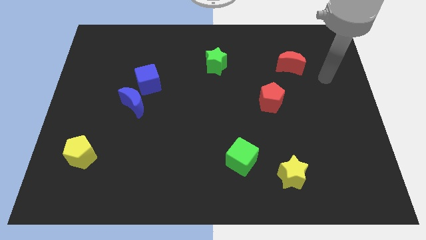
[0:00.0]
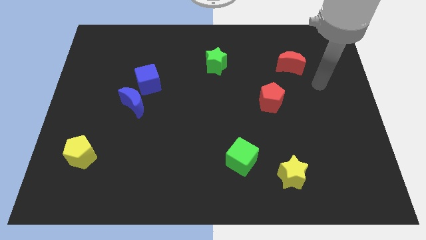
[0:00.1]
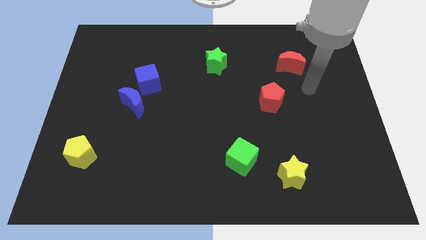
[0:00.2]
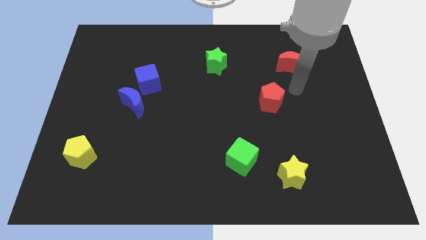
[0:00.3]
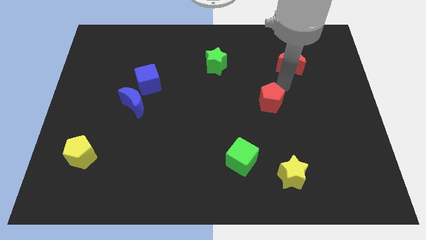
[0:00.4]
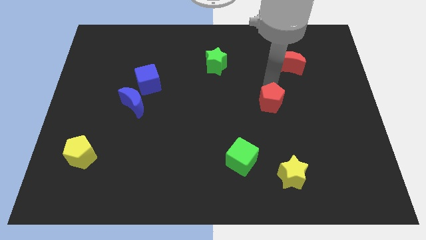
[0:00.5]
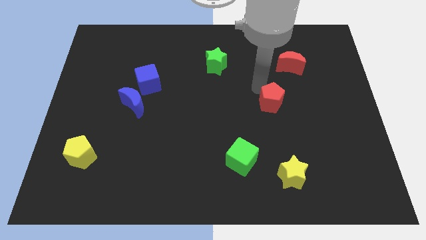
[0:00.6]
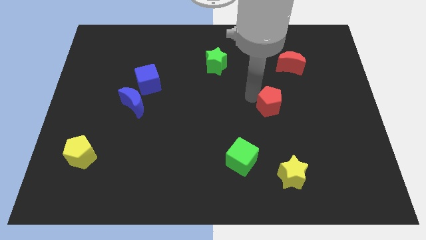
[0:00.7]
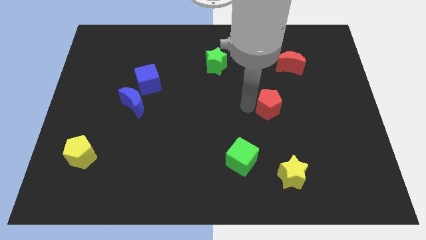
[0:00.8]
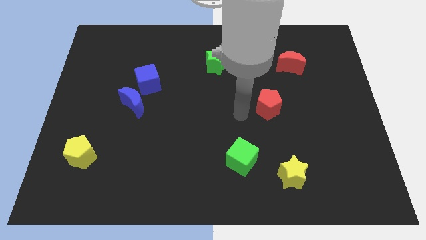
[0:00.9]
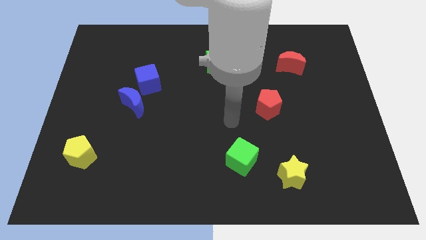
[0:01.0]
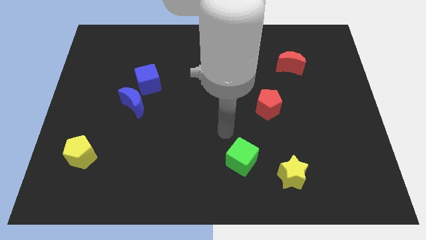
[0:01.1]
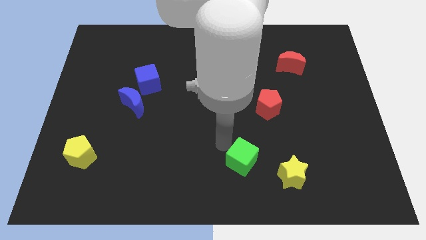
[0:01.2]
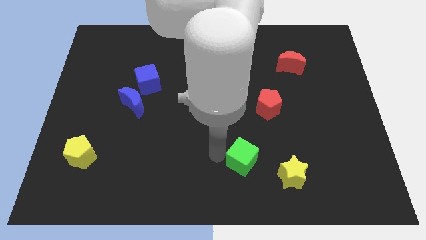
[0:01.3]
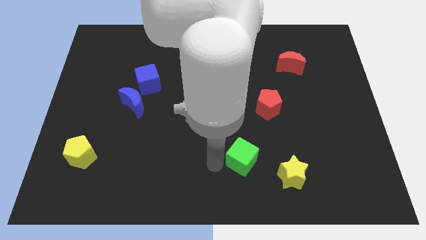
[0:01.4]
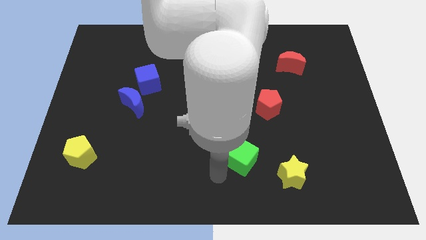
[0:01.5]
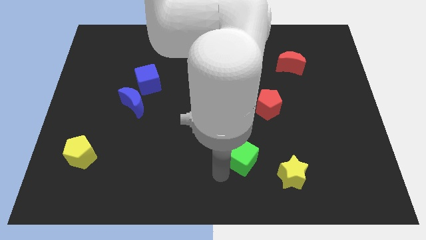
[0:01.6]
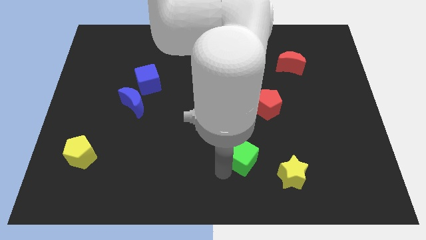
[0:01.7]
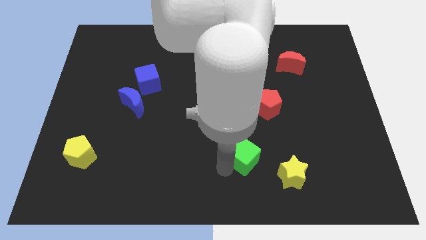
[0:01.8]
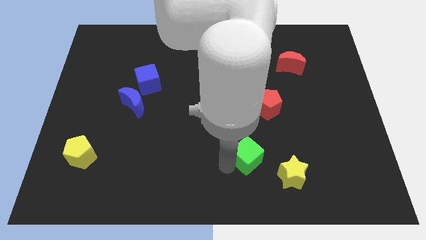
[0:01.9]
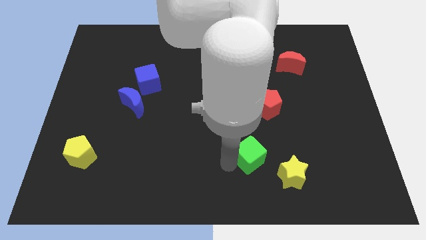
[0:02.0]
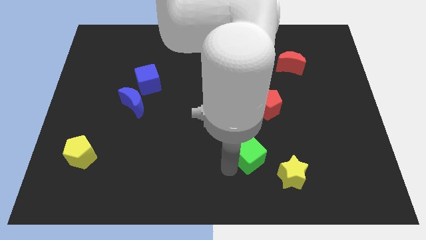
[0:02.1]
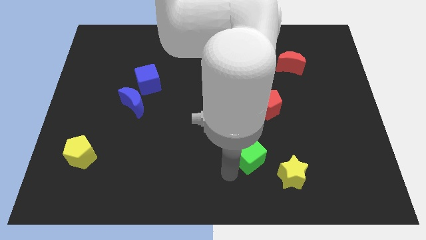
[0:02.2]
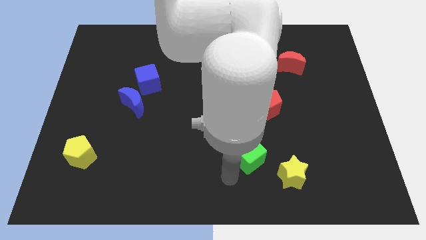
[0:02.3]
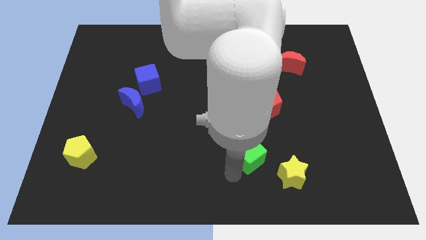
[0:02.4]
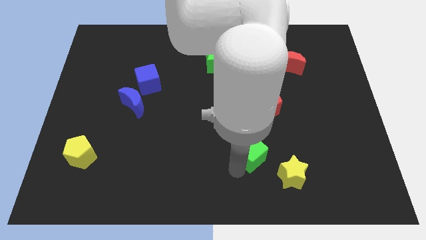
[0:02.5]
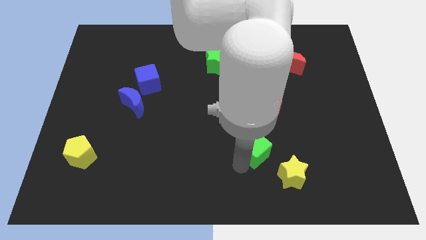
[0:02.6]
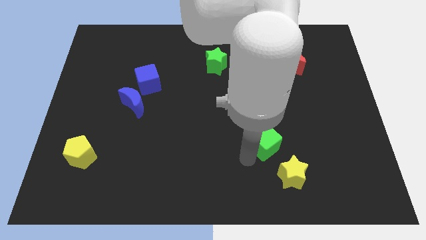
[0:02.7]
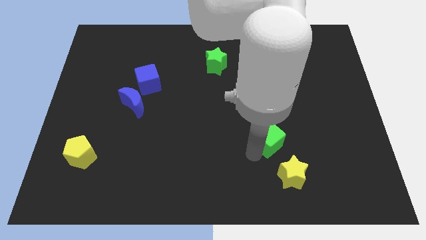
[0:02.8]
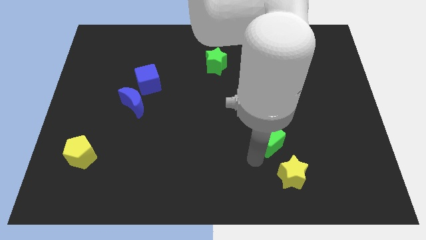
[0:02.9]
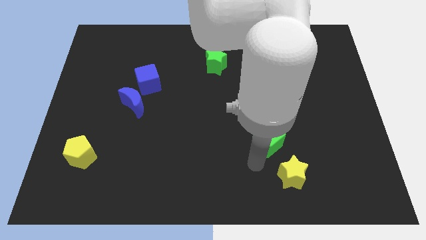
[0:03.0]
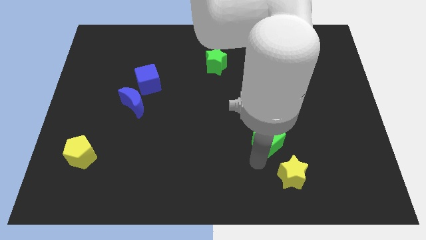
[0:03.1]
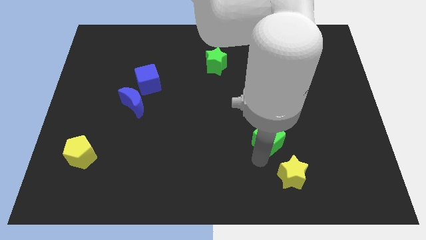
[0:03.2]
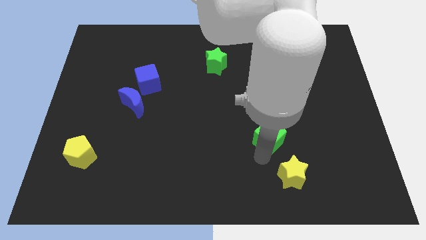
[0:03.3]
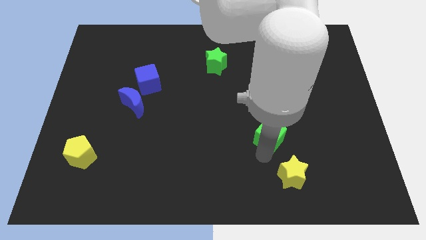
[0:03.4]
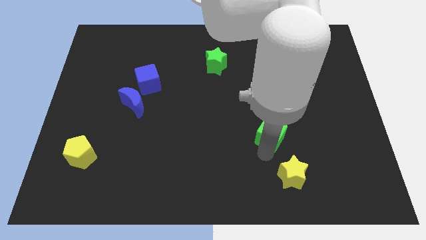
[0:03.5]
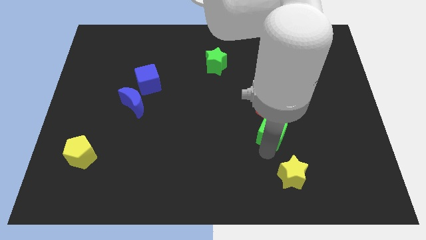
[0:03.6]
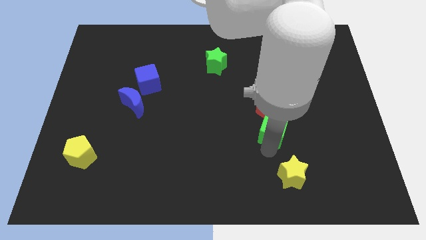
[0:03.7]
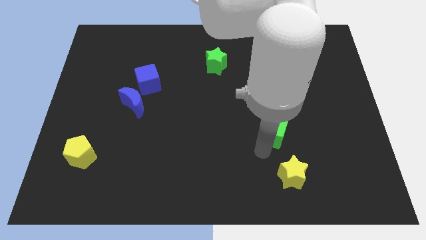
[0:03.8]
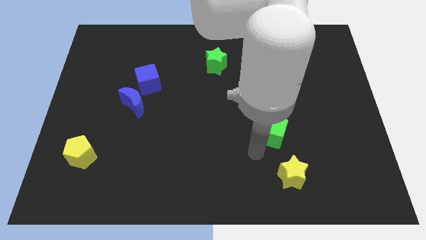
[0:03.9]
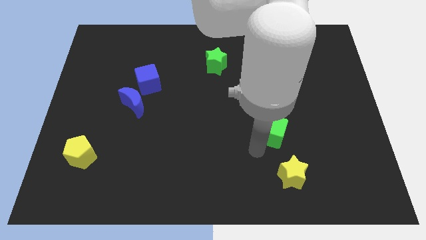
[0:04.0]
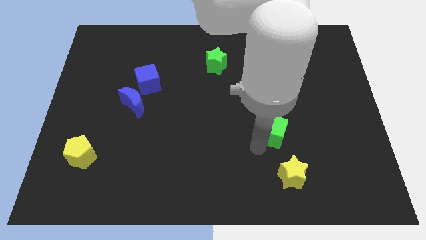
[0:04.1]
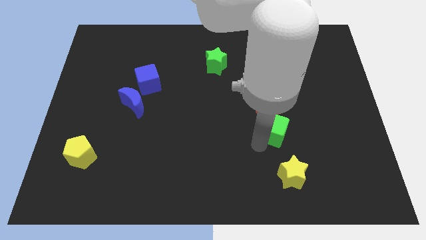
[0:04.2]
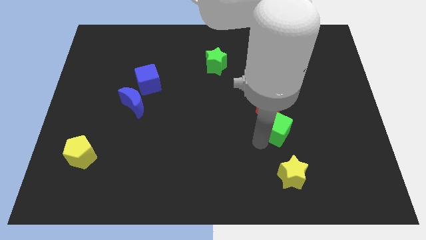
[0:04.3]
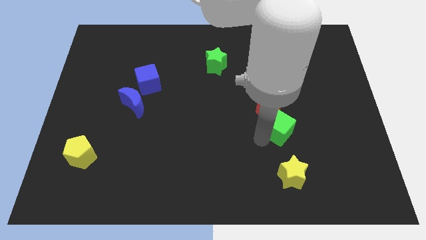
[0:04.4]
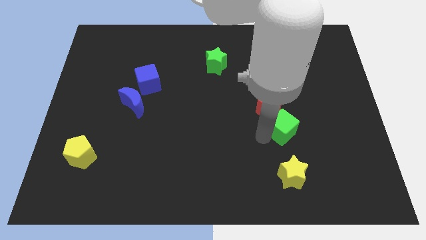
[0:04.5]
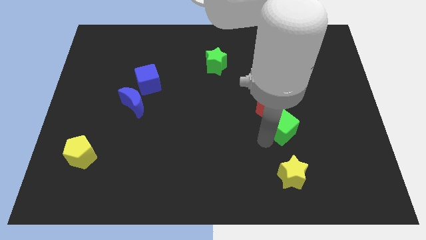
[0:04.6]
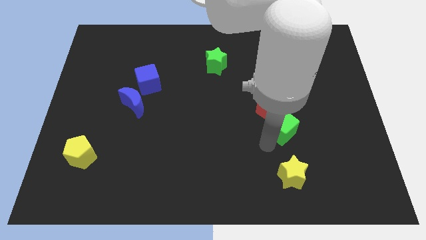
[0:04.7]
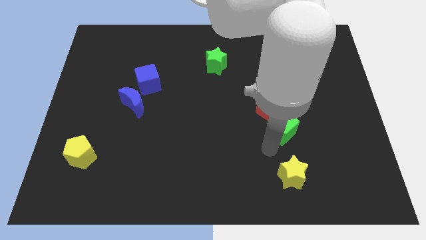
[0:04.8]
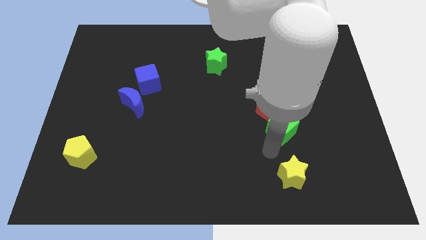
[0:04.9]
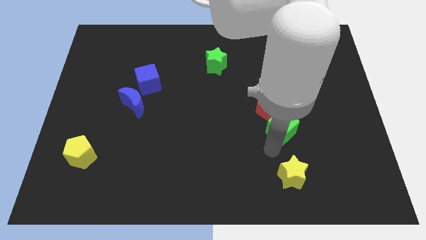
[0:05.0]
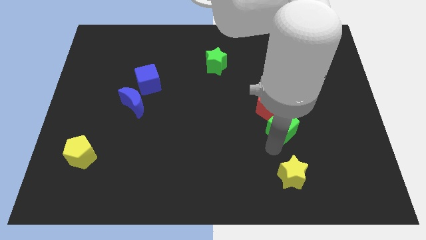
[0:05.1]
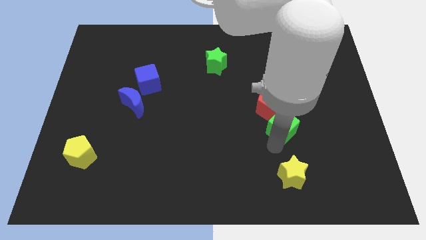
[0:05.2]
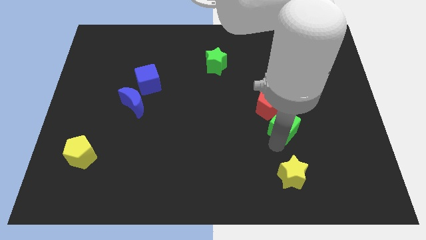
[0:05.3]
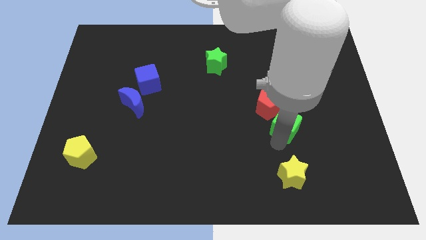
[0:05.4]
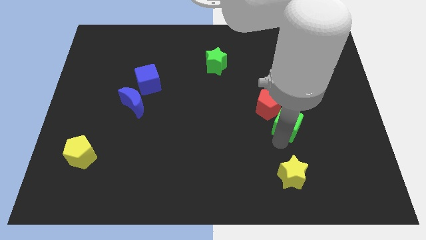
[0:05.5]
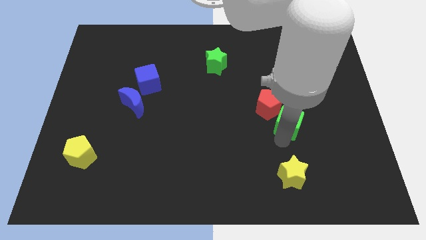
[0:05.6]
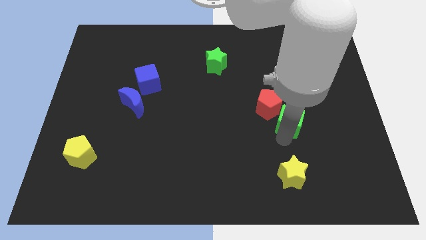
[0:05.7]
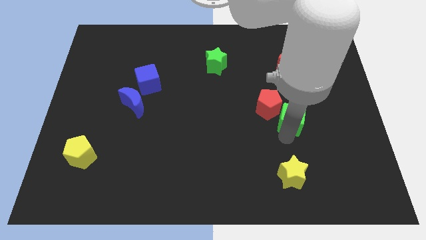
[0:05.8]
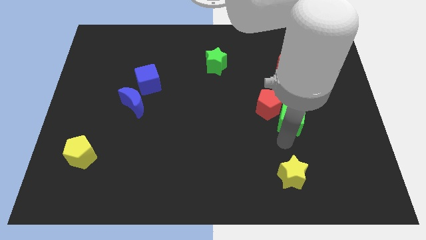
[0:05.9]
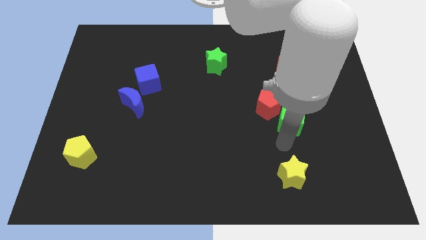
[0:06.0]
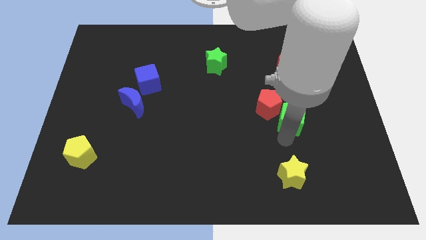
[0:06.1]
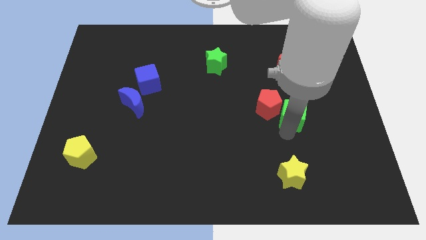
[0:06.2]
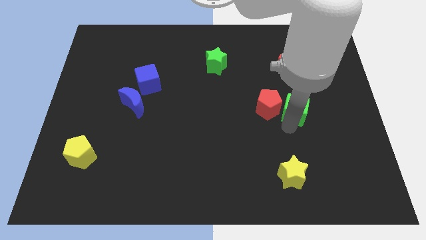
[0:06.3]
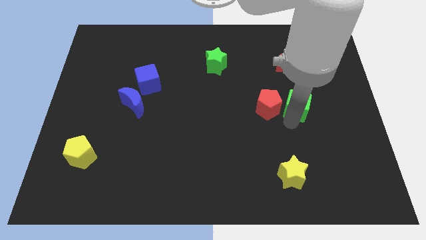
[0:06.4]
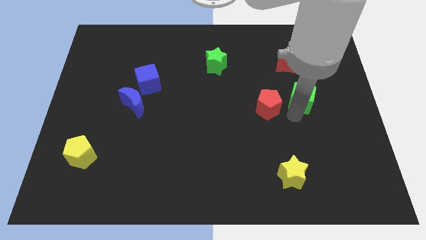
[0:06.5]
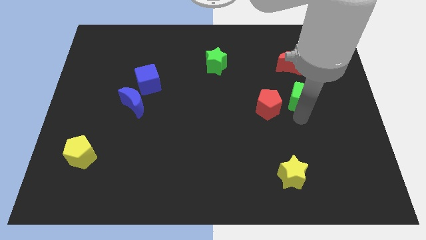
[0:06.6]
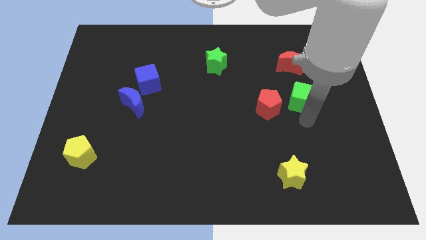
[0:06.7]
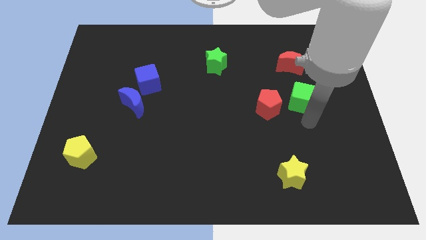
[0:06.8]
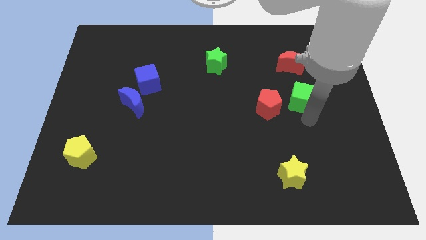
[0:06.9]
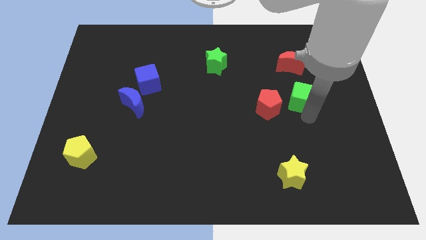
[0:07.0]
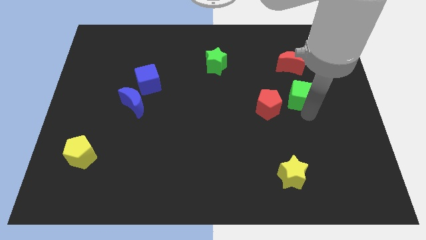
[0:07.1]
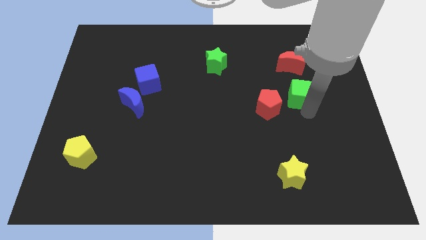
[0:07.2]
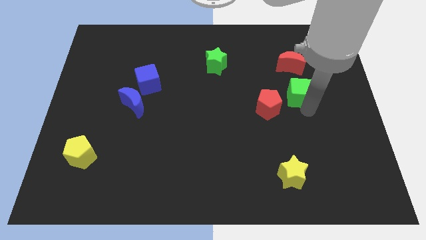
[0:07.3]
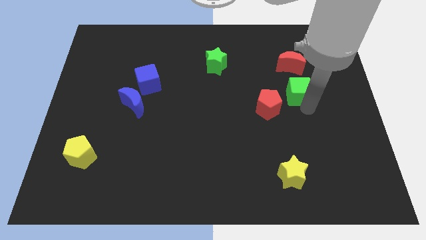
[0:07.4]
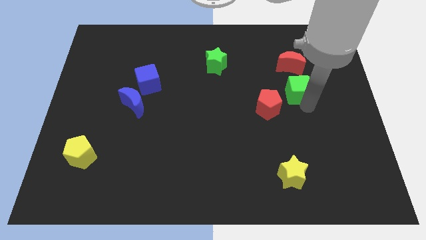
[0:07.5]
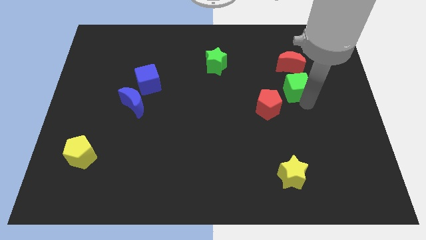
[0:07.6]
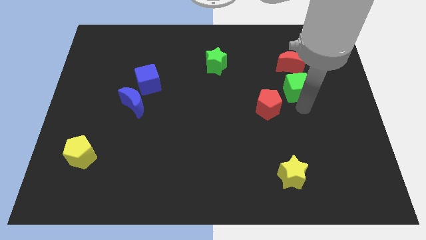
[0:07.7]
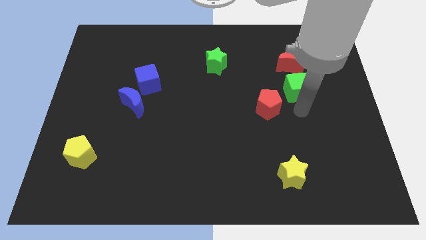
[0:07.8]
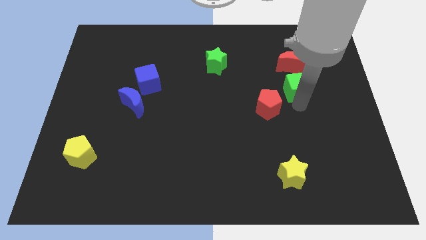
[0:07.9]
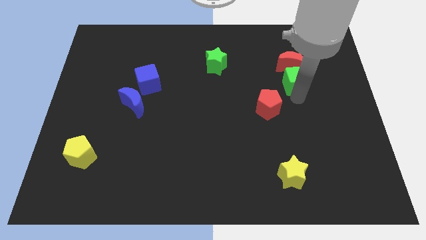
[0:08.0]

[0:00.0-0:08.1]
move the green cube towards the red moon
